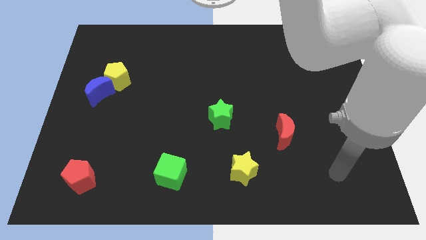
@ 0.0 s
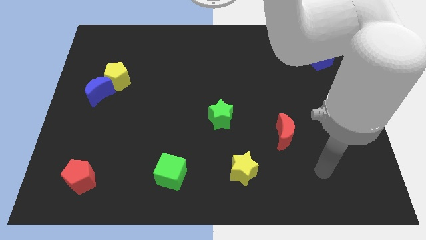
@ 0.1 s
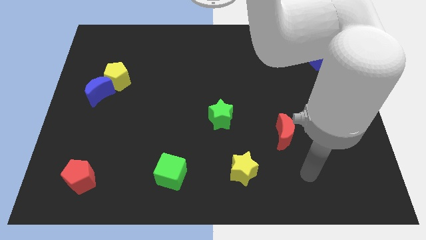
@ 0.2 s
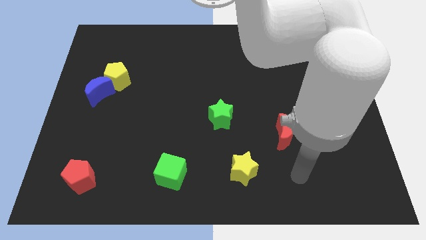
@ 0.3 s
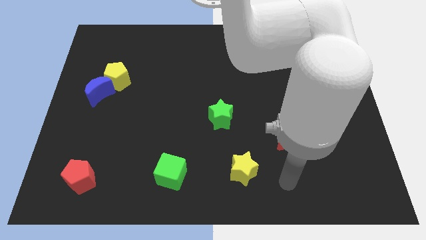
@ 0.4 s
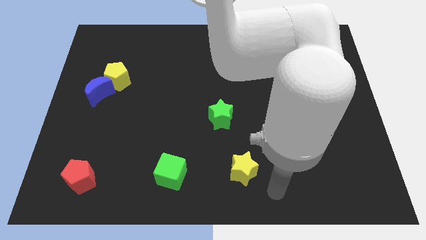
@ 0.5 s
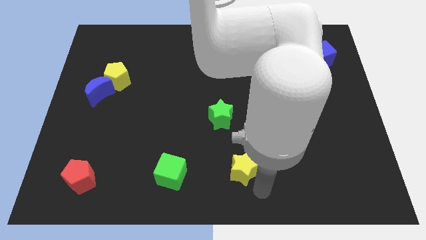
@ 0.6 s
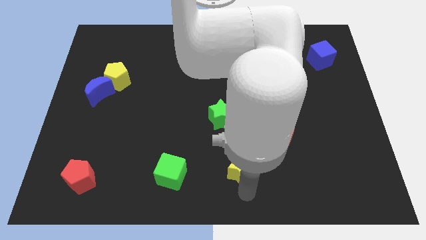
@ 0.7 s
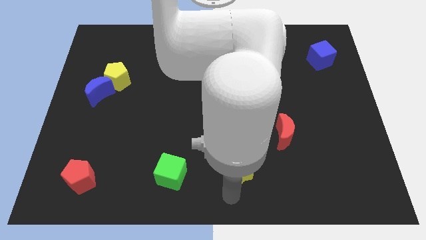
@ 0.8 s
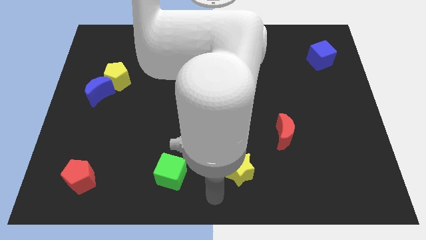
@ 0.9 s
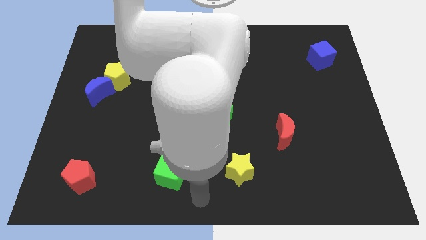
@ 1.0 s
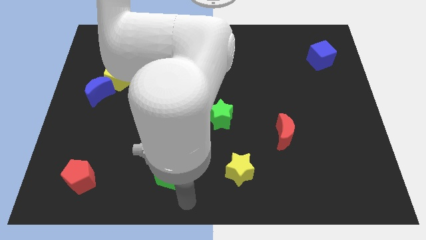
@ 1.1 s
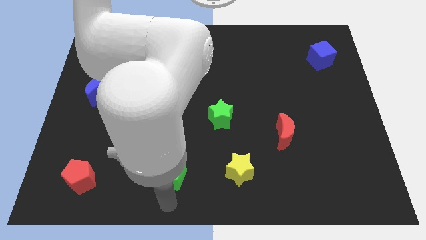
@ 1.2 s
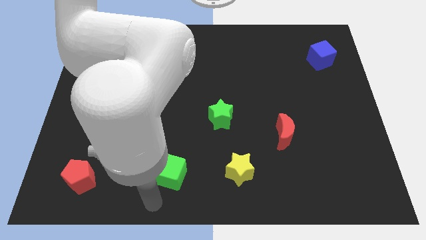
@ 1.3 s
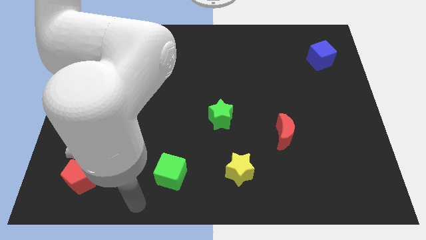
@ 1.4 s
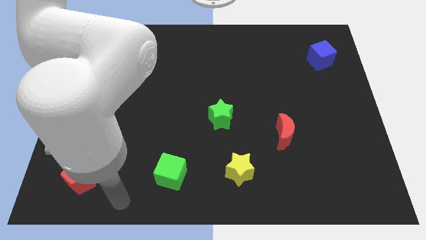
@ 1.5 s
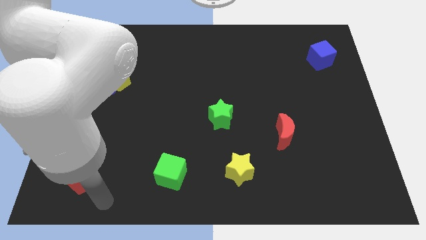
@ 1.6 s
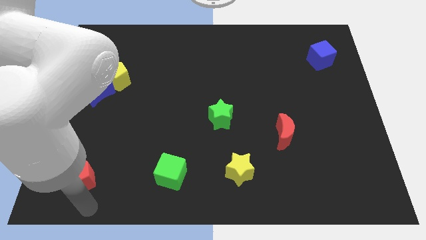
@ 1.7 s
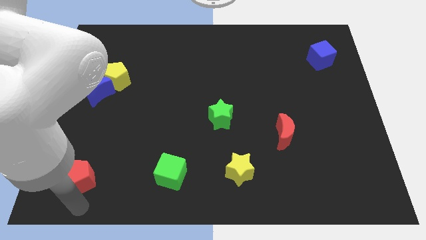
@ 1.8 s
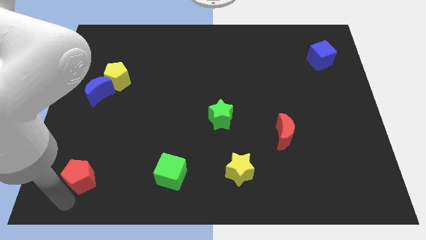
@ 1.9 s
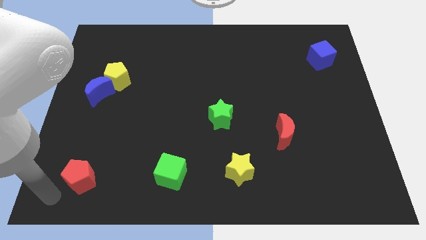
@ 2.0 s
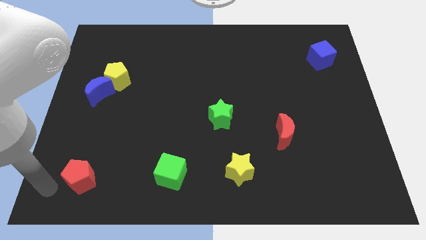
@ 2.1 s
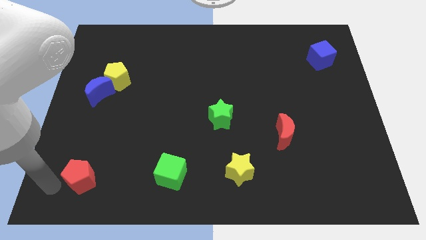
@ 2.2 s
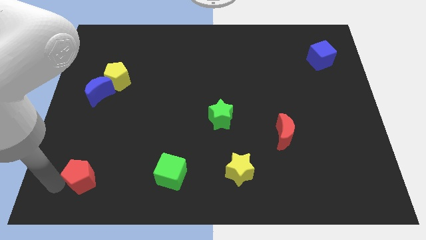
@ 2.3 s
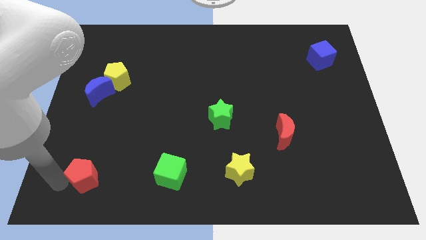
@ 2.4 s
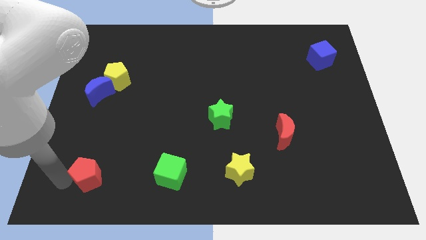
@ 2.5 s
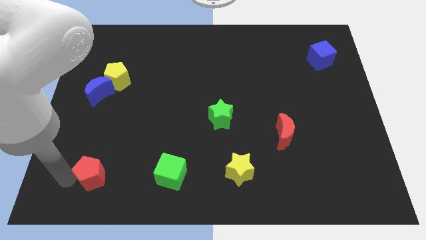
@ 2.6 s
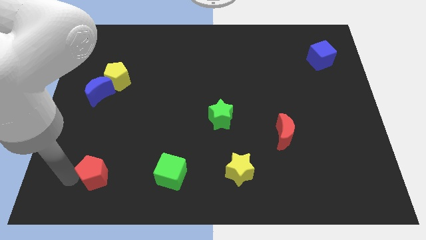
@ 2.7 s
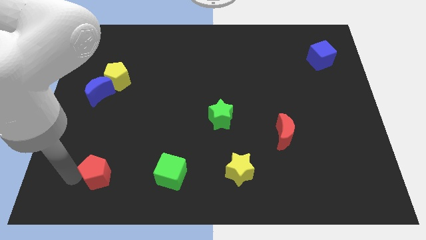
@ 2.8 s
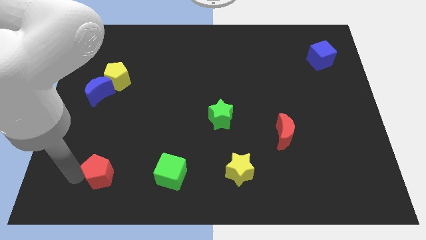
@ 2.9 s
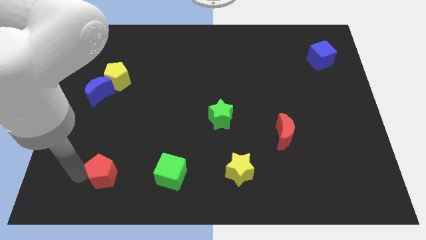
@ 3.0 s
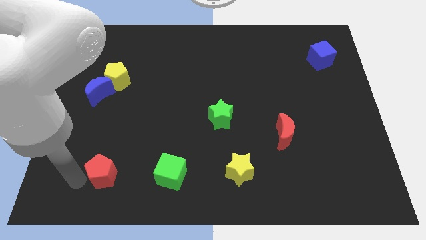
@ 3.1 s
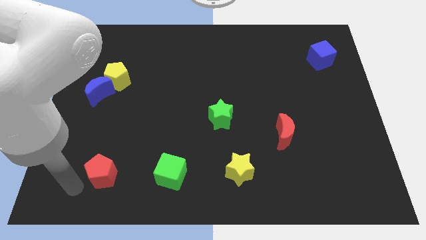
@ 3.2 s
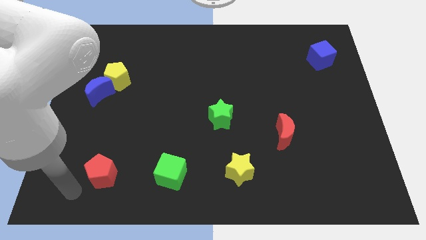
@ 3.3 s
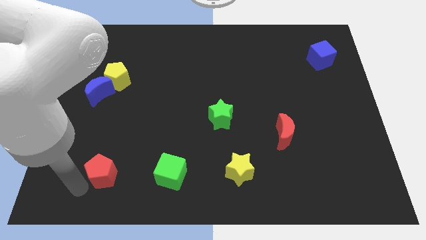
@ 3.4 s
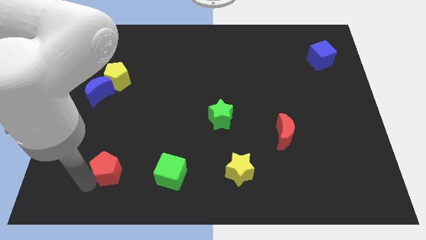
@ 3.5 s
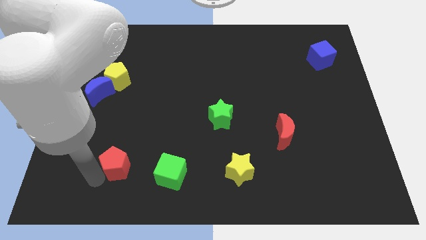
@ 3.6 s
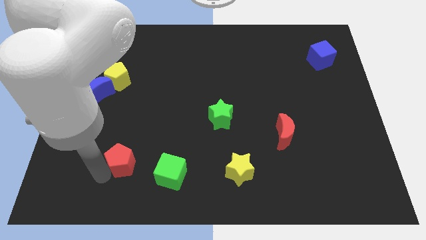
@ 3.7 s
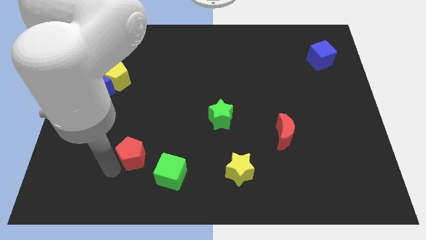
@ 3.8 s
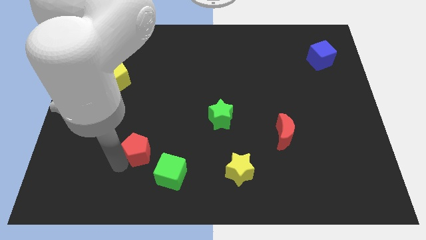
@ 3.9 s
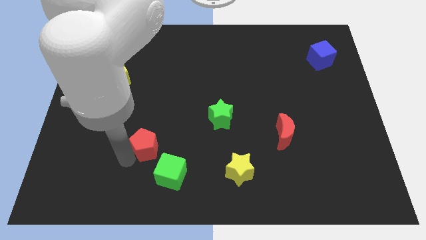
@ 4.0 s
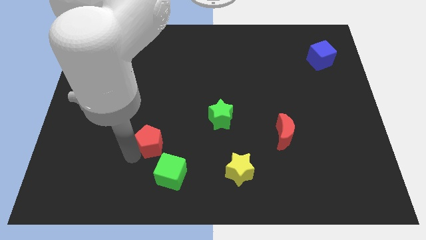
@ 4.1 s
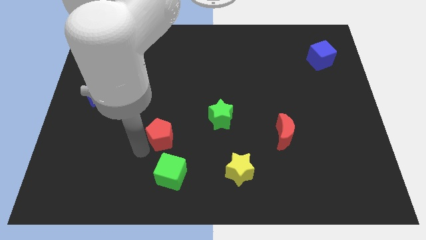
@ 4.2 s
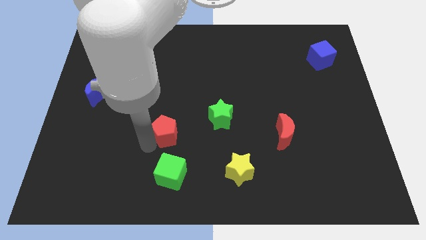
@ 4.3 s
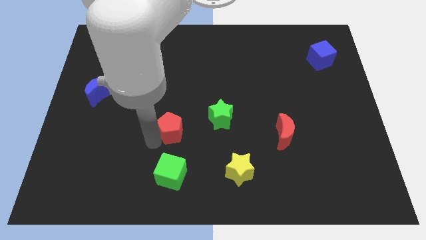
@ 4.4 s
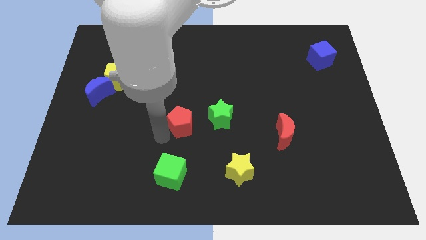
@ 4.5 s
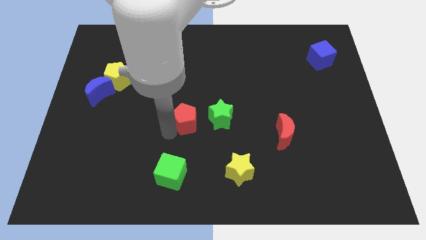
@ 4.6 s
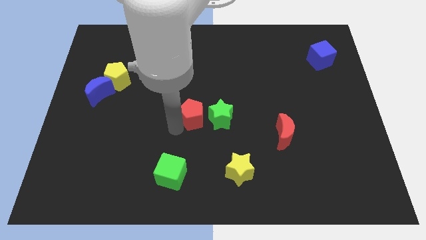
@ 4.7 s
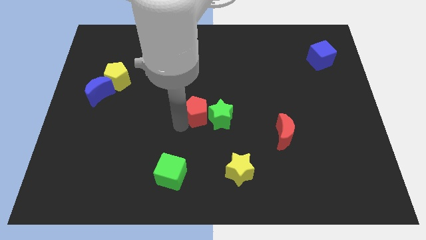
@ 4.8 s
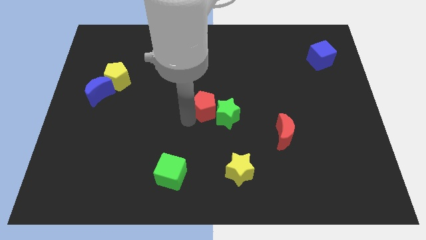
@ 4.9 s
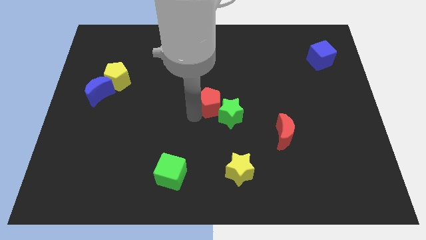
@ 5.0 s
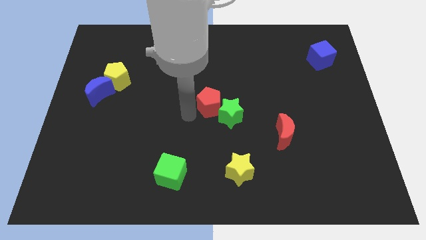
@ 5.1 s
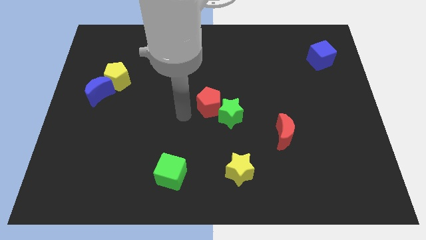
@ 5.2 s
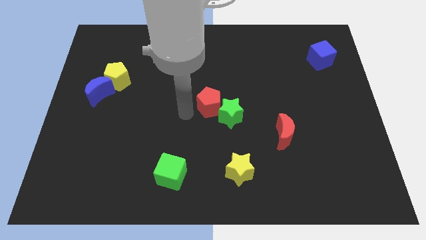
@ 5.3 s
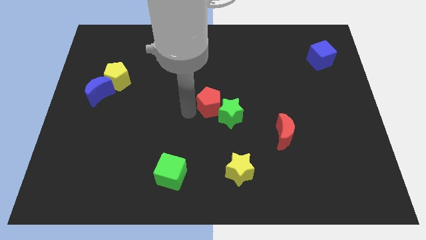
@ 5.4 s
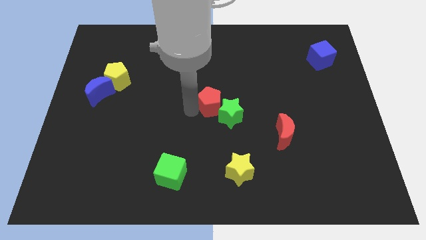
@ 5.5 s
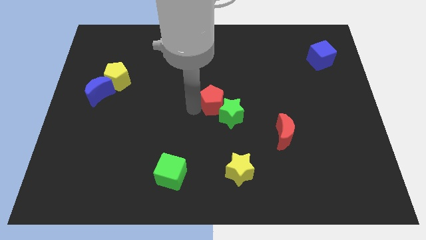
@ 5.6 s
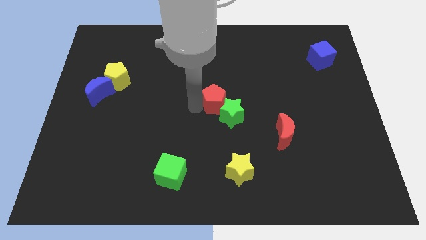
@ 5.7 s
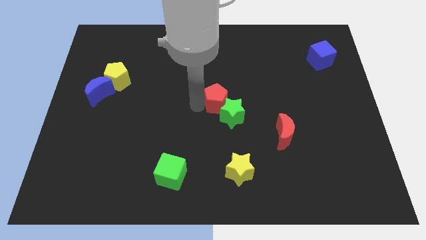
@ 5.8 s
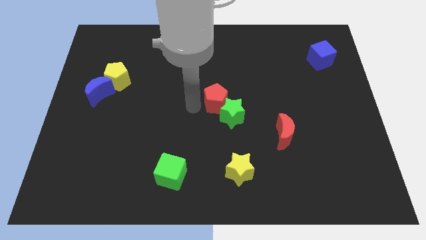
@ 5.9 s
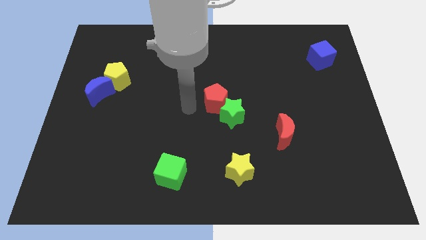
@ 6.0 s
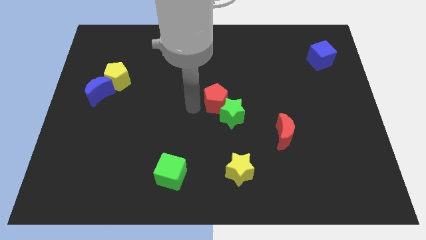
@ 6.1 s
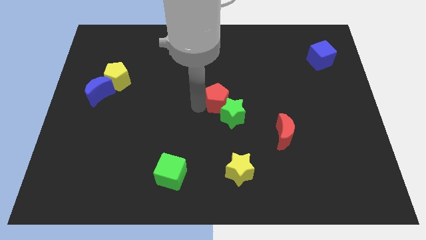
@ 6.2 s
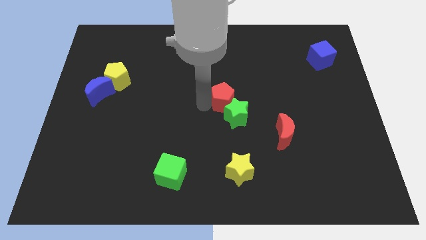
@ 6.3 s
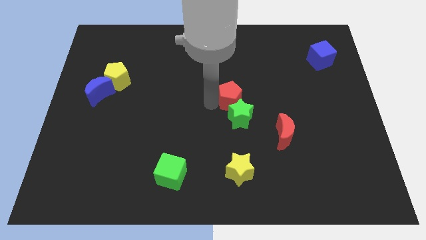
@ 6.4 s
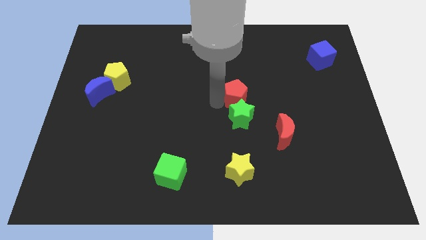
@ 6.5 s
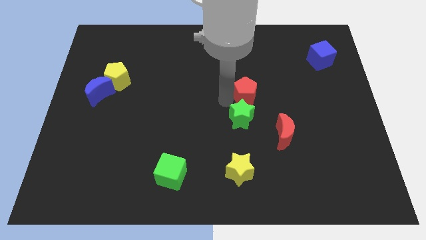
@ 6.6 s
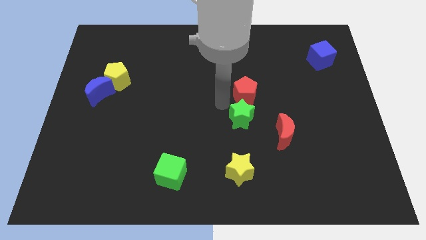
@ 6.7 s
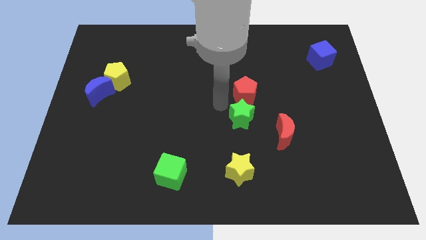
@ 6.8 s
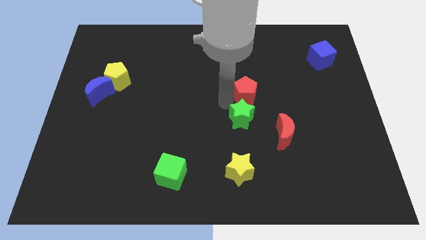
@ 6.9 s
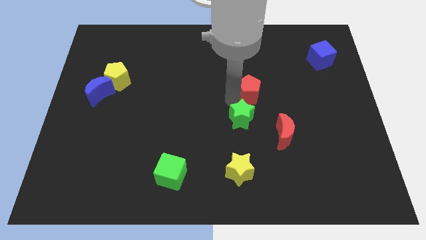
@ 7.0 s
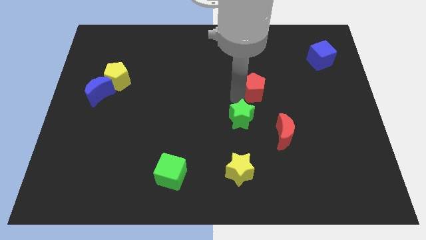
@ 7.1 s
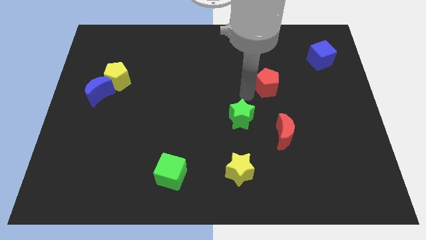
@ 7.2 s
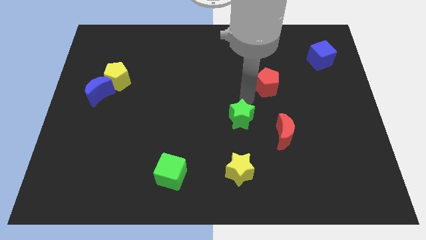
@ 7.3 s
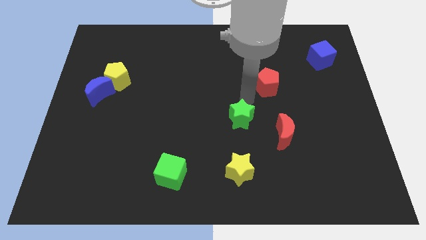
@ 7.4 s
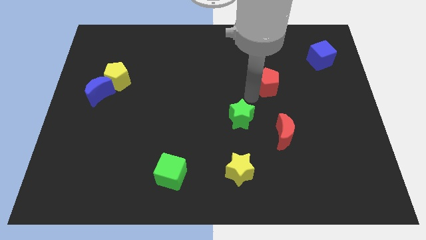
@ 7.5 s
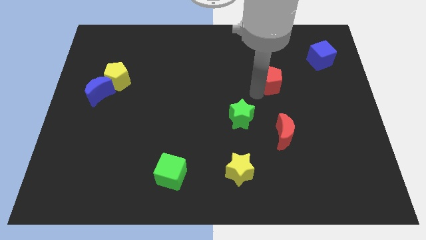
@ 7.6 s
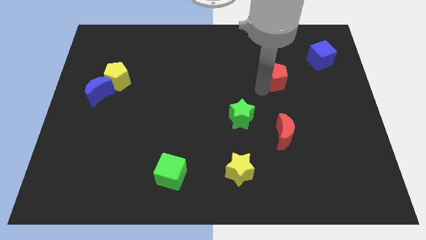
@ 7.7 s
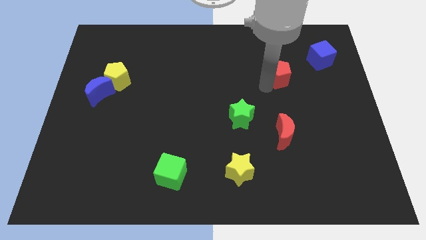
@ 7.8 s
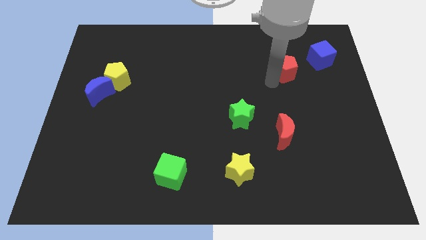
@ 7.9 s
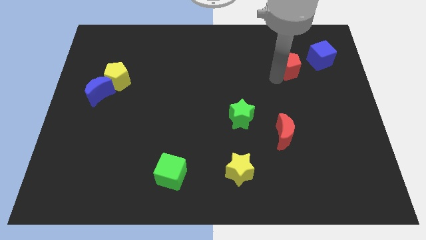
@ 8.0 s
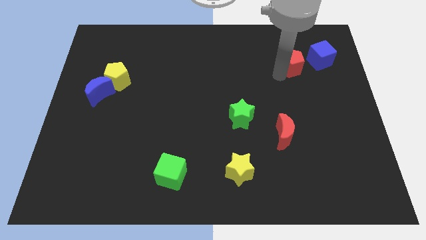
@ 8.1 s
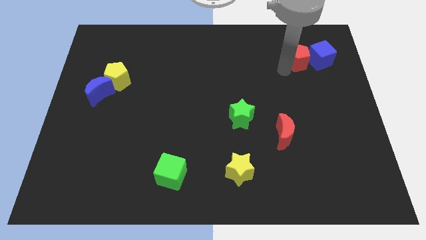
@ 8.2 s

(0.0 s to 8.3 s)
move the red pentagon next to the blue cube
